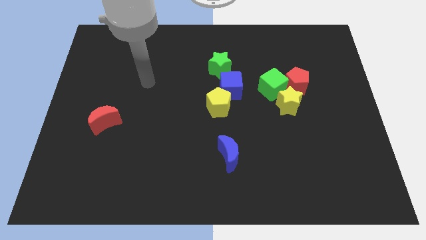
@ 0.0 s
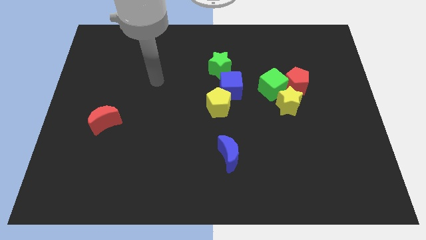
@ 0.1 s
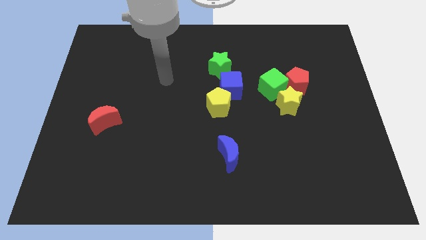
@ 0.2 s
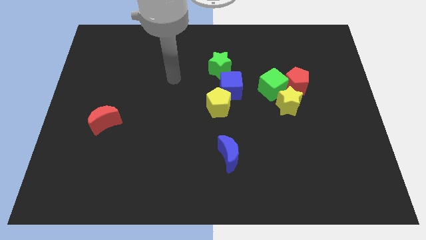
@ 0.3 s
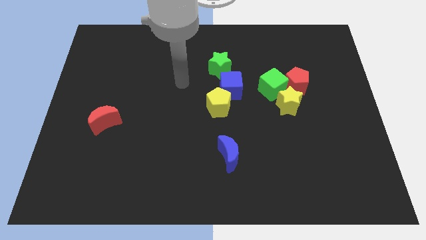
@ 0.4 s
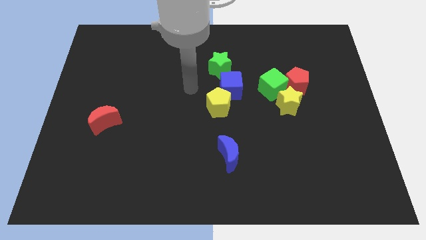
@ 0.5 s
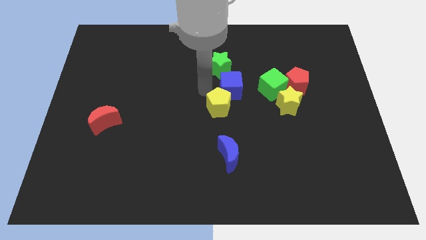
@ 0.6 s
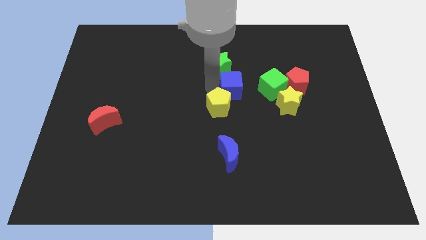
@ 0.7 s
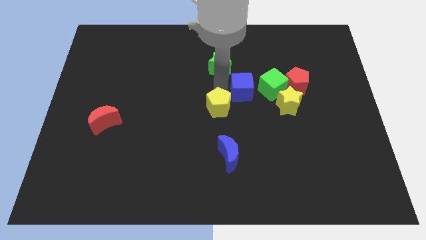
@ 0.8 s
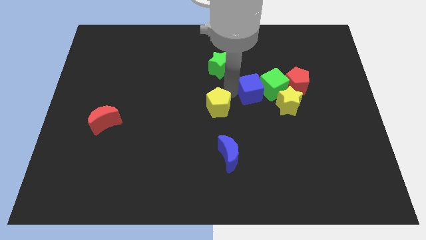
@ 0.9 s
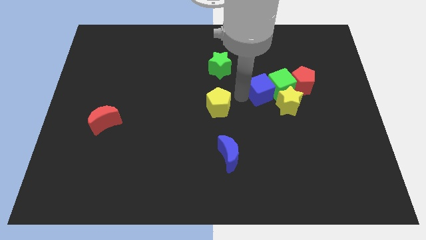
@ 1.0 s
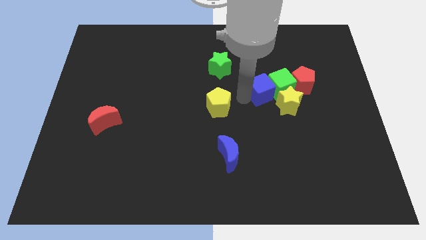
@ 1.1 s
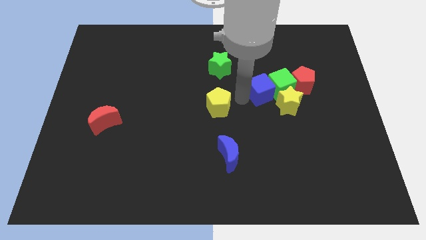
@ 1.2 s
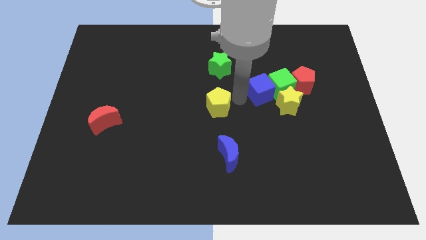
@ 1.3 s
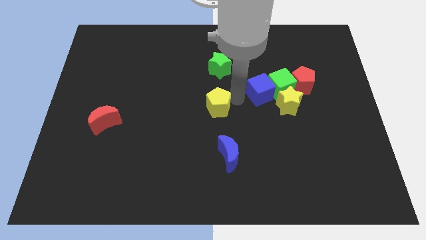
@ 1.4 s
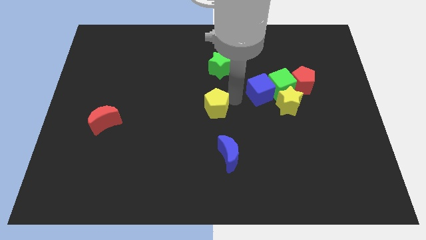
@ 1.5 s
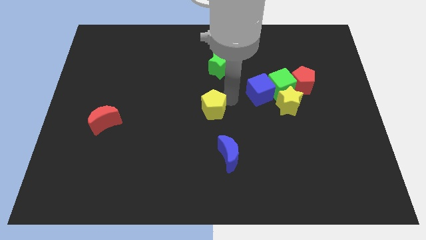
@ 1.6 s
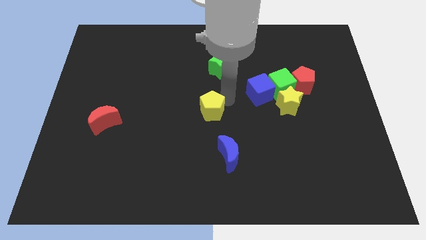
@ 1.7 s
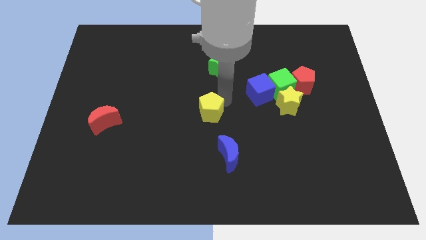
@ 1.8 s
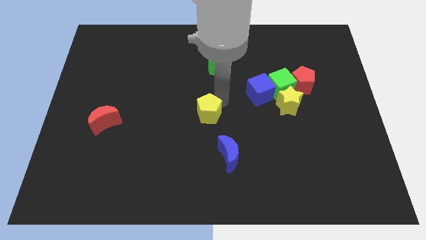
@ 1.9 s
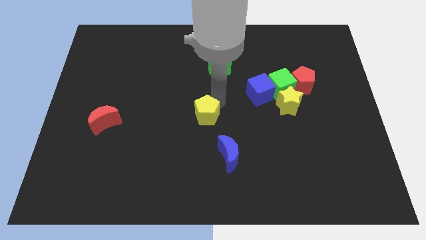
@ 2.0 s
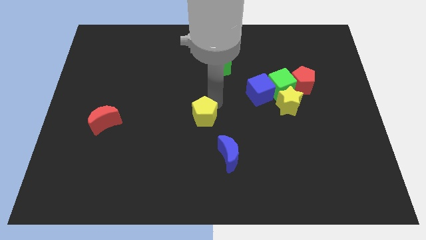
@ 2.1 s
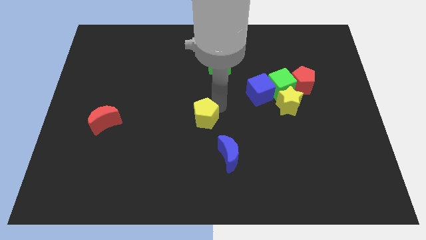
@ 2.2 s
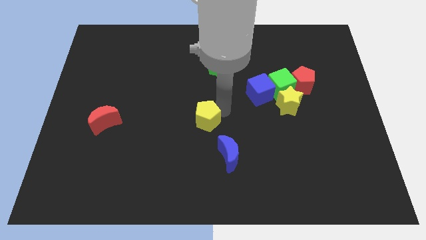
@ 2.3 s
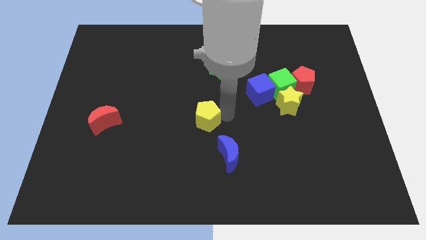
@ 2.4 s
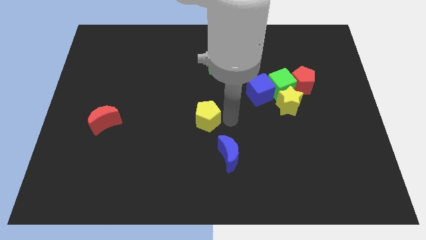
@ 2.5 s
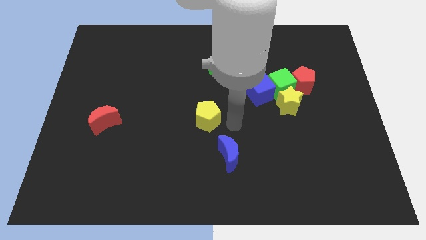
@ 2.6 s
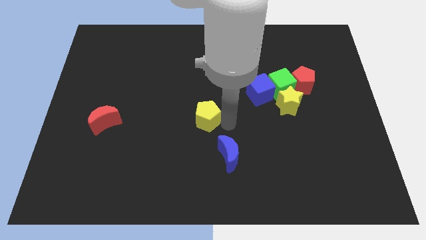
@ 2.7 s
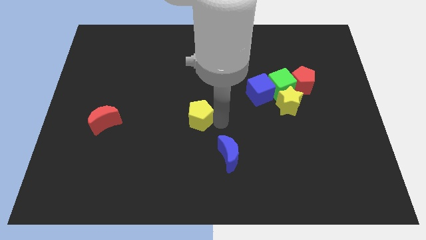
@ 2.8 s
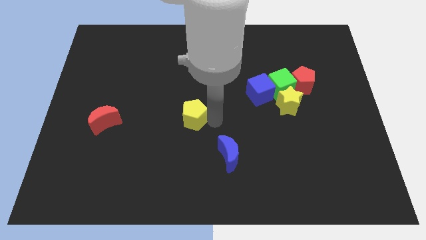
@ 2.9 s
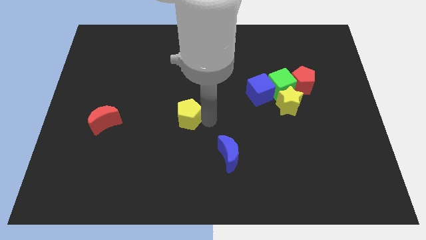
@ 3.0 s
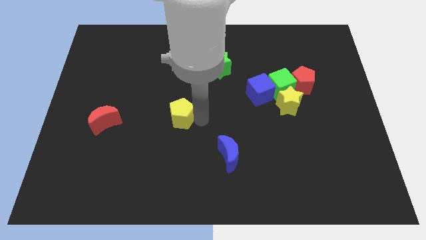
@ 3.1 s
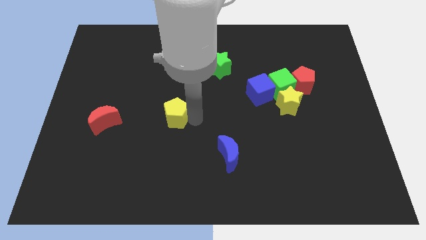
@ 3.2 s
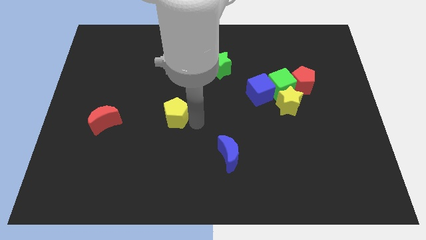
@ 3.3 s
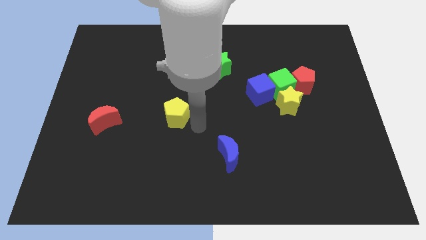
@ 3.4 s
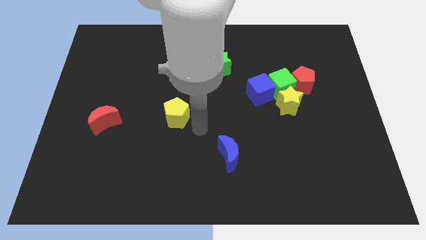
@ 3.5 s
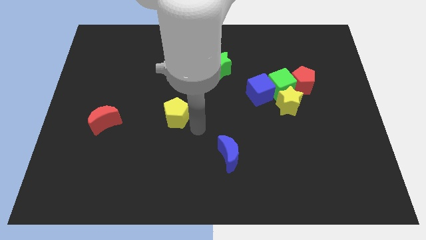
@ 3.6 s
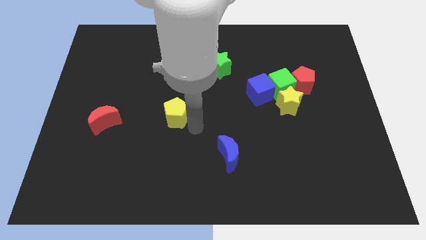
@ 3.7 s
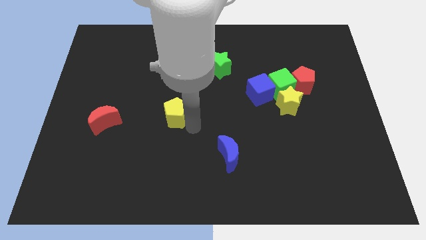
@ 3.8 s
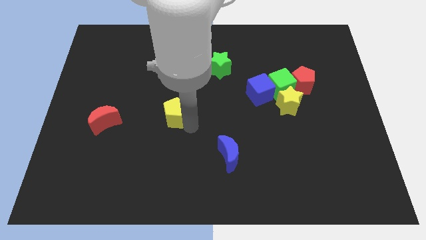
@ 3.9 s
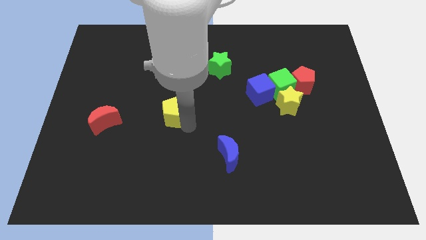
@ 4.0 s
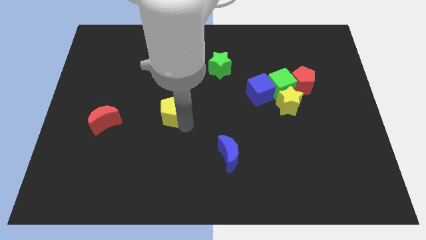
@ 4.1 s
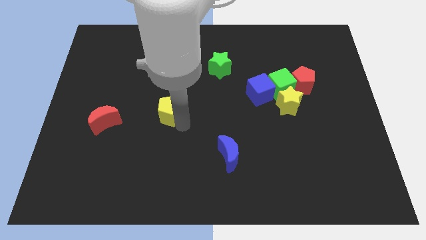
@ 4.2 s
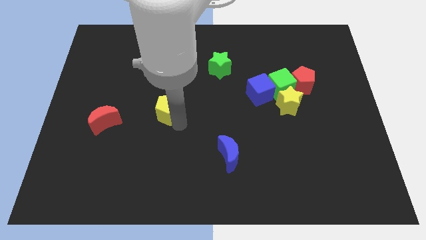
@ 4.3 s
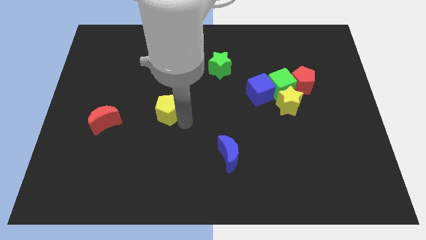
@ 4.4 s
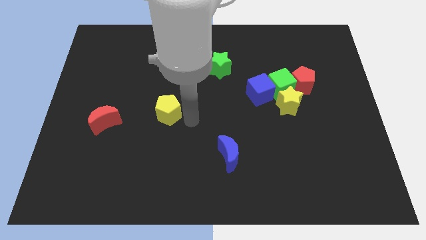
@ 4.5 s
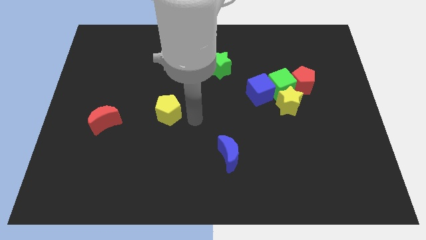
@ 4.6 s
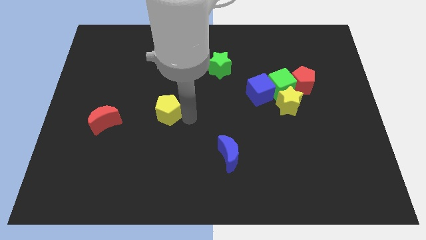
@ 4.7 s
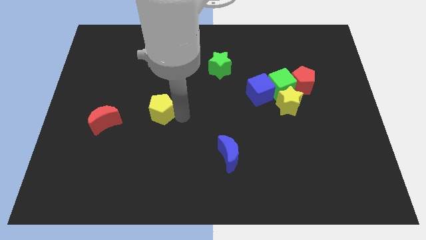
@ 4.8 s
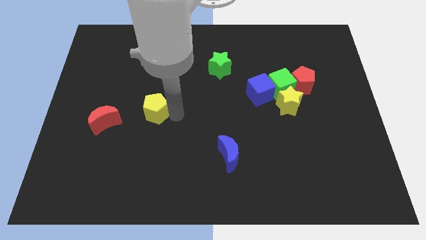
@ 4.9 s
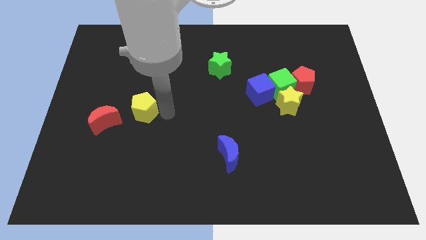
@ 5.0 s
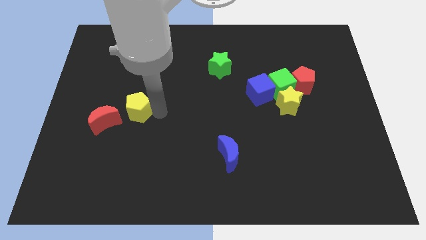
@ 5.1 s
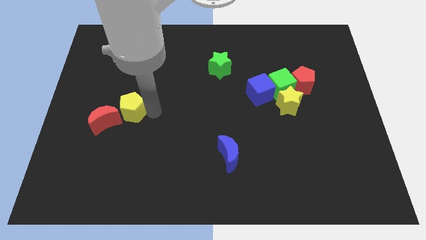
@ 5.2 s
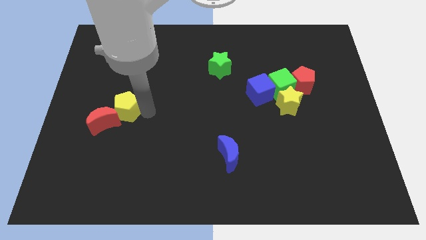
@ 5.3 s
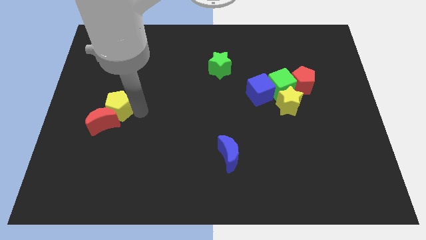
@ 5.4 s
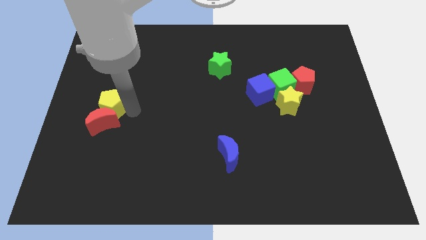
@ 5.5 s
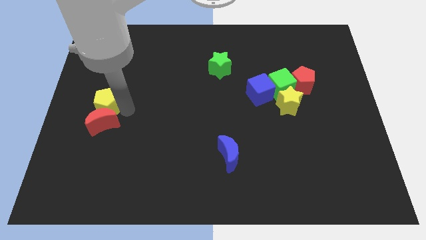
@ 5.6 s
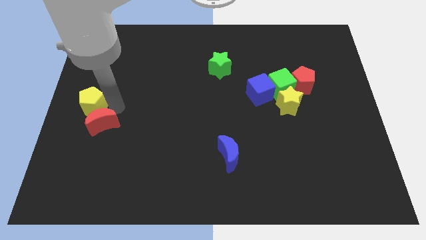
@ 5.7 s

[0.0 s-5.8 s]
slide the yellow pentagon to the left side of the board
